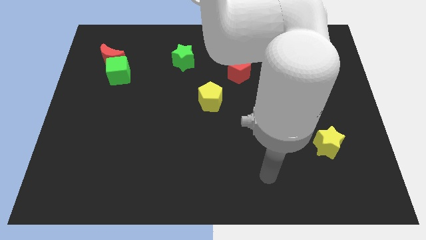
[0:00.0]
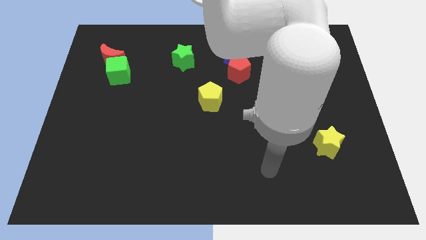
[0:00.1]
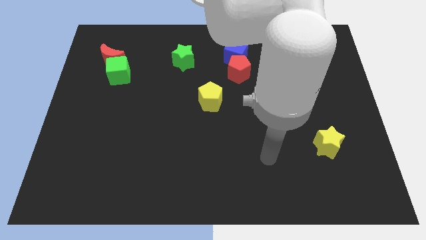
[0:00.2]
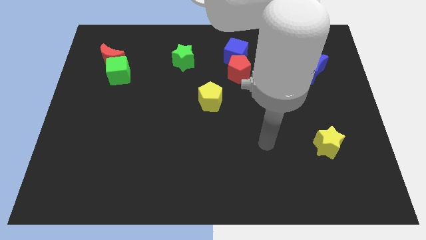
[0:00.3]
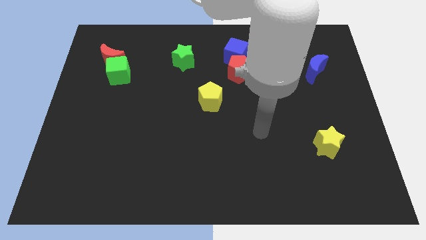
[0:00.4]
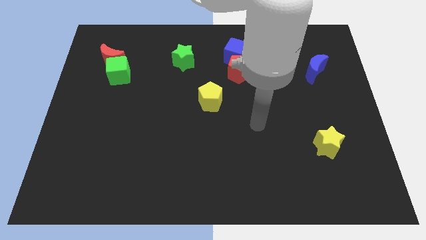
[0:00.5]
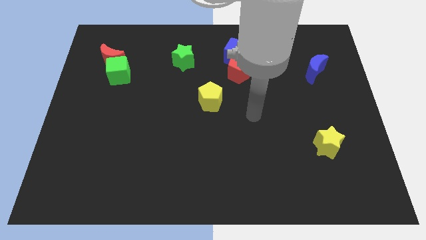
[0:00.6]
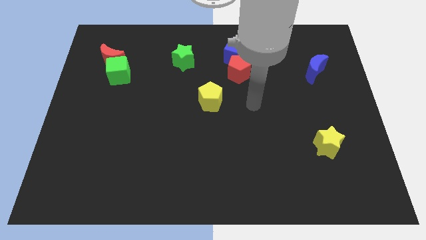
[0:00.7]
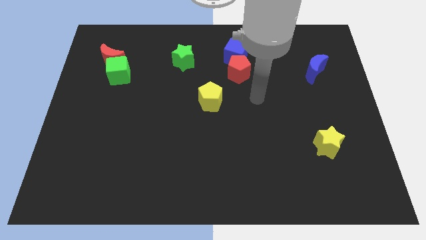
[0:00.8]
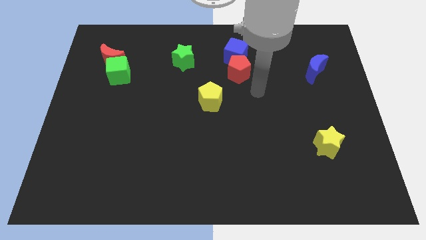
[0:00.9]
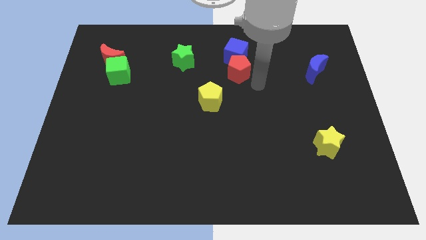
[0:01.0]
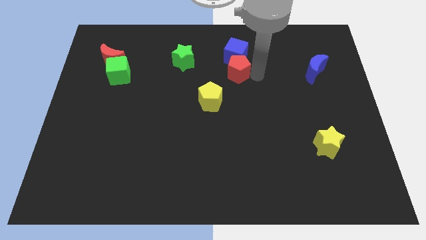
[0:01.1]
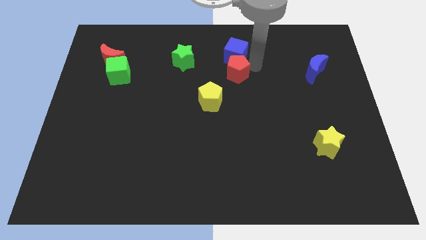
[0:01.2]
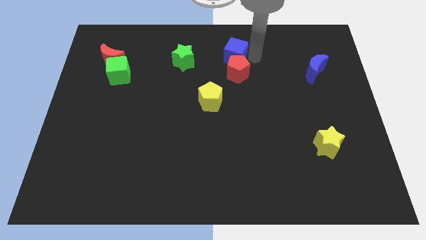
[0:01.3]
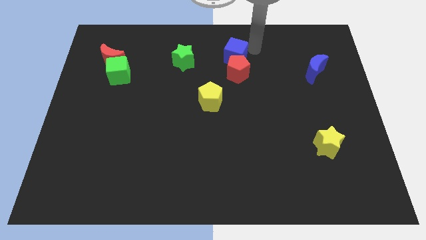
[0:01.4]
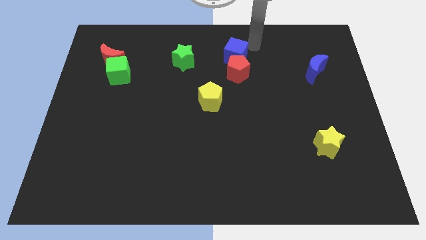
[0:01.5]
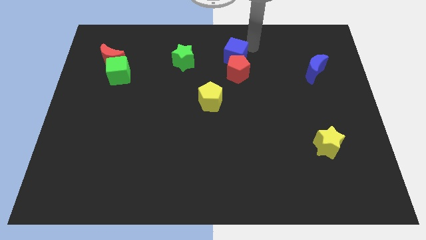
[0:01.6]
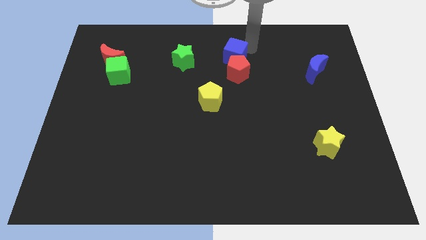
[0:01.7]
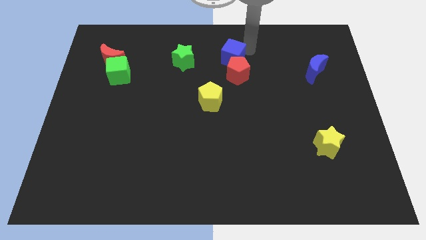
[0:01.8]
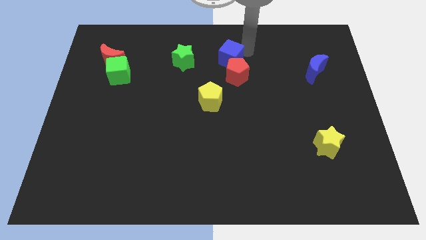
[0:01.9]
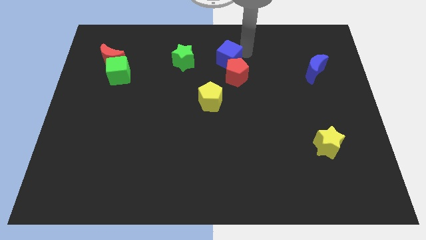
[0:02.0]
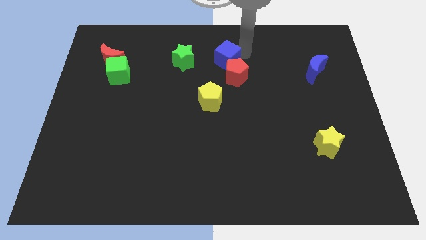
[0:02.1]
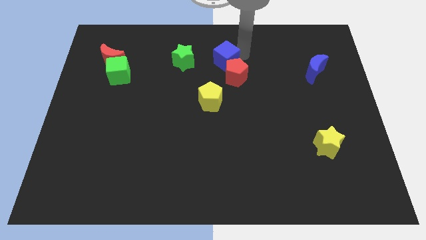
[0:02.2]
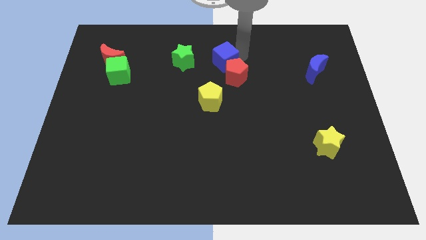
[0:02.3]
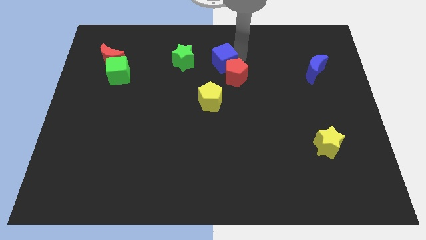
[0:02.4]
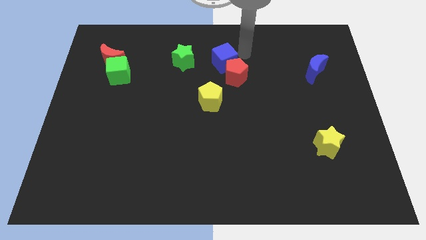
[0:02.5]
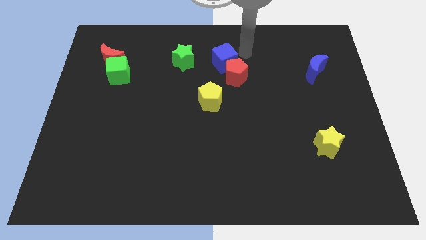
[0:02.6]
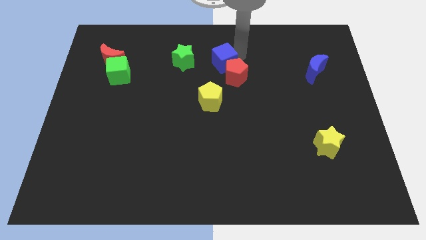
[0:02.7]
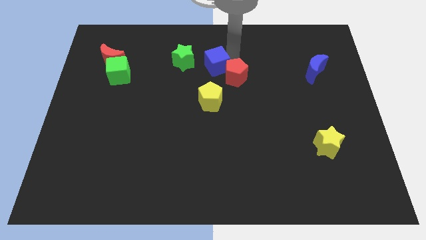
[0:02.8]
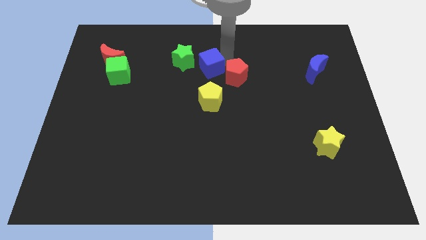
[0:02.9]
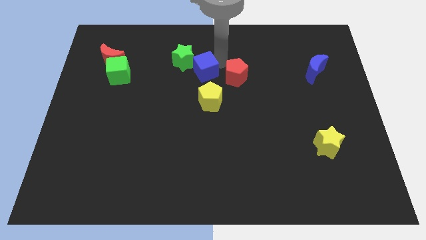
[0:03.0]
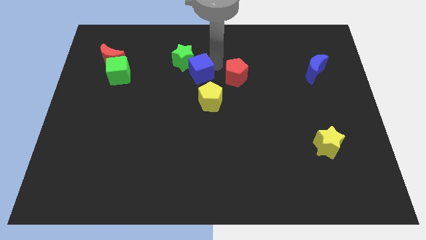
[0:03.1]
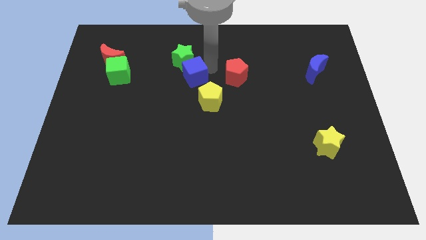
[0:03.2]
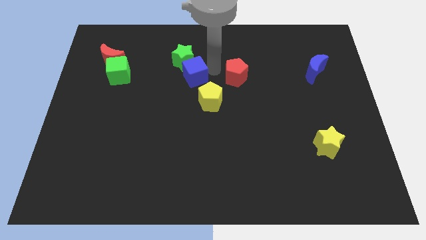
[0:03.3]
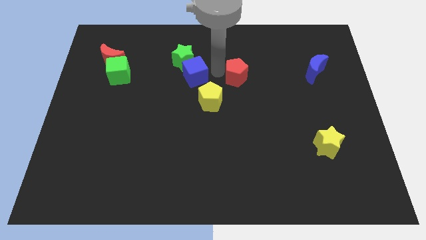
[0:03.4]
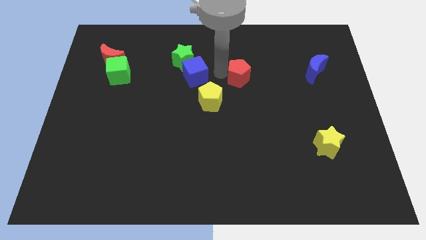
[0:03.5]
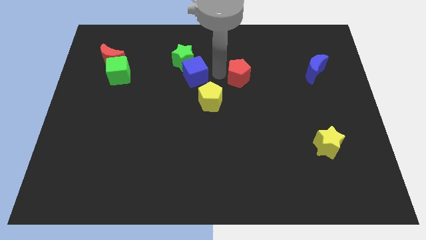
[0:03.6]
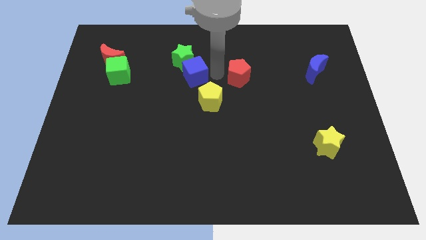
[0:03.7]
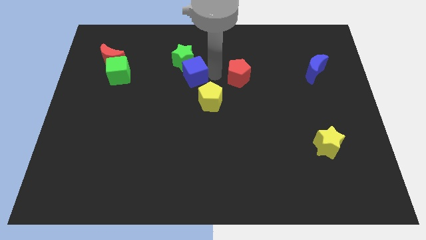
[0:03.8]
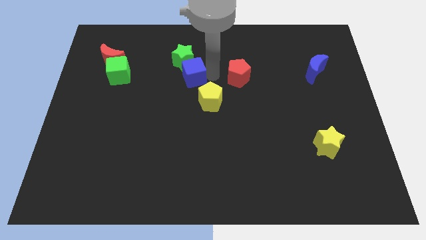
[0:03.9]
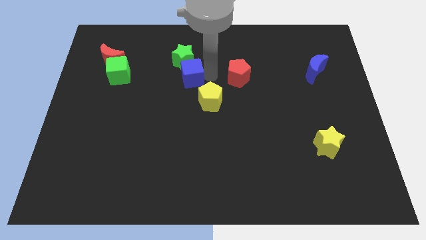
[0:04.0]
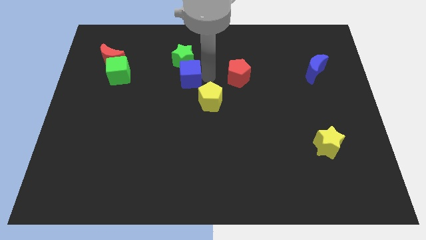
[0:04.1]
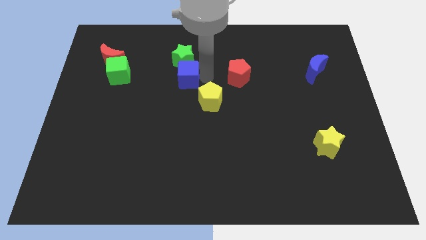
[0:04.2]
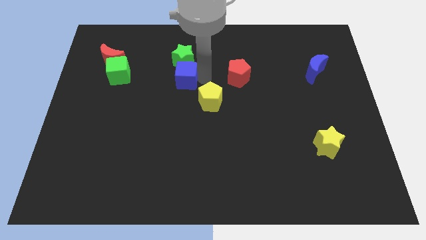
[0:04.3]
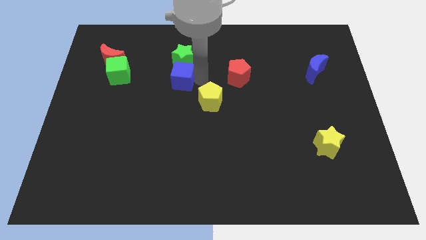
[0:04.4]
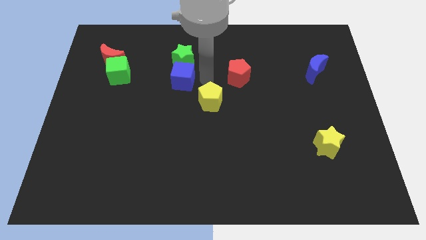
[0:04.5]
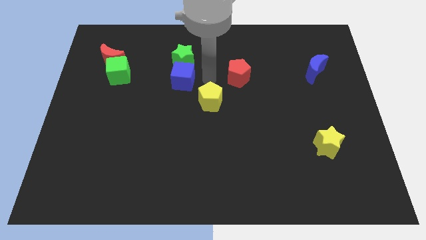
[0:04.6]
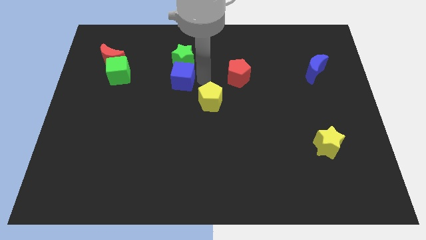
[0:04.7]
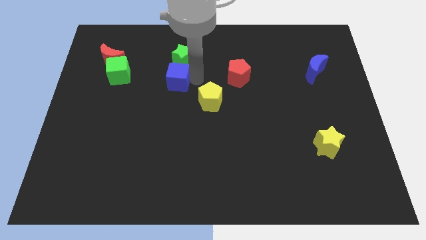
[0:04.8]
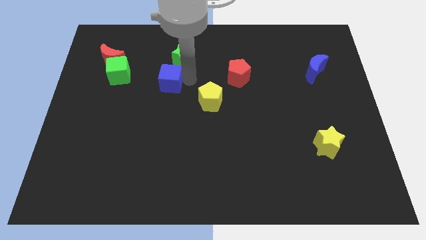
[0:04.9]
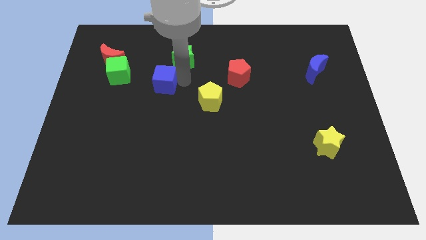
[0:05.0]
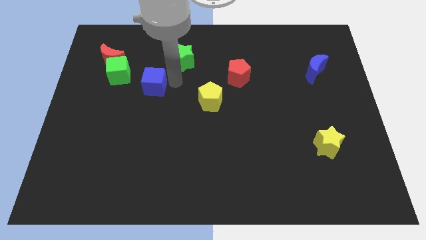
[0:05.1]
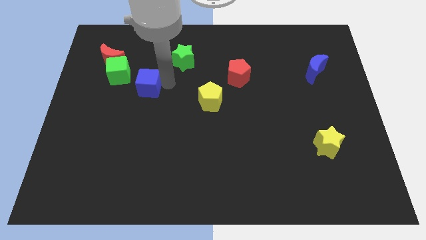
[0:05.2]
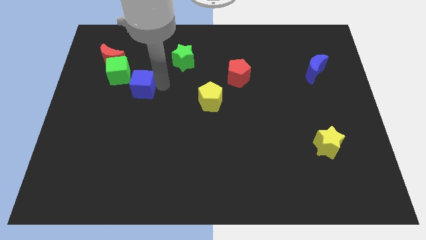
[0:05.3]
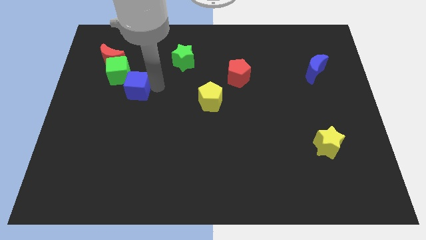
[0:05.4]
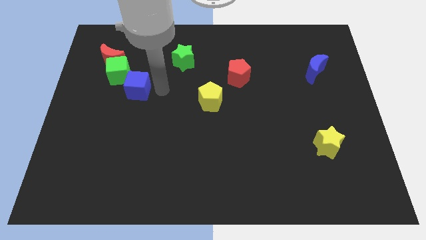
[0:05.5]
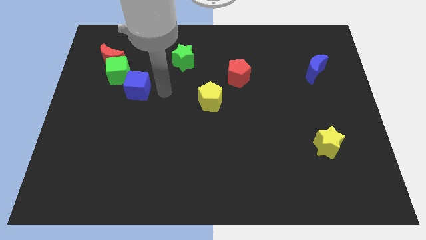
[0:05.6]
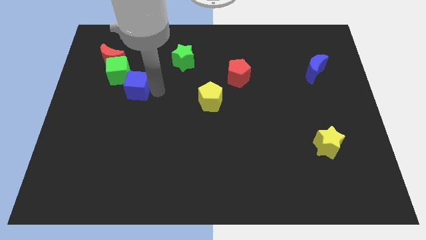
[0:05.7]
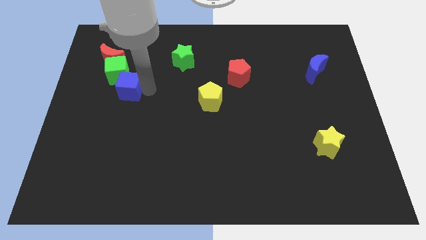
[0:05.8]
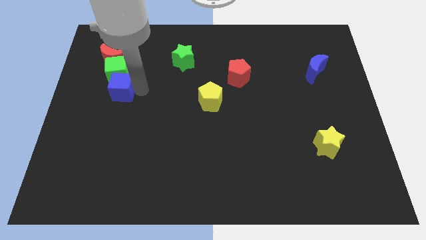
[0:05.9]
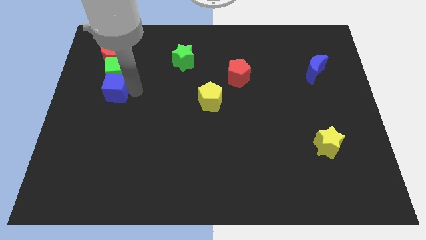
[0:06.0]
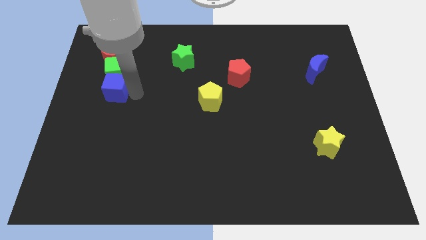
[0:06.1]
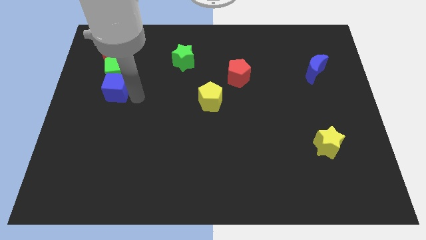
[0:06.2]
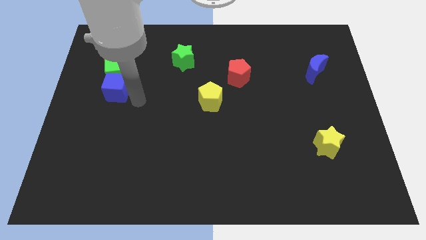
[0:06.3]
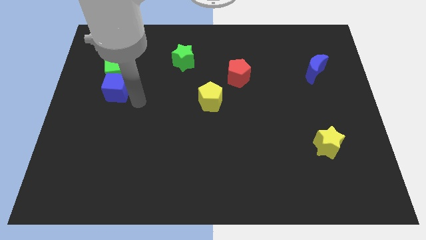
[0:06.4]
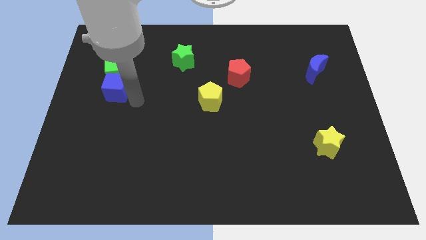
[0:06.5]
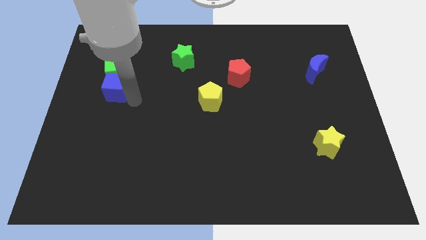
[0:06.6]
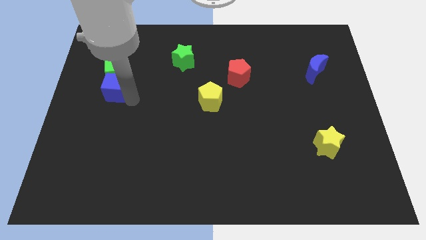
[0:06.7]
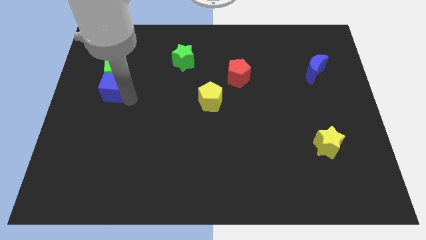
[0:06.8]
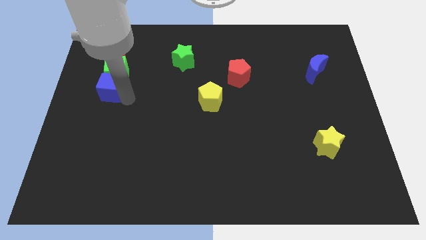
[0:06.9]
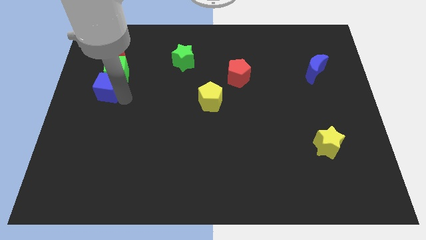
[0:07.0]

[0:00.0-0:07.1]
put the blue cube to the left side
